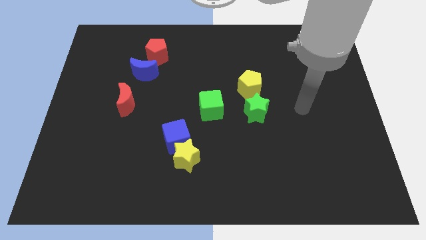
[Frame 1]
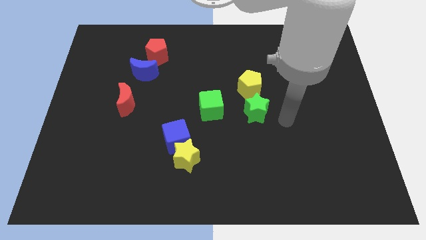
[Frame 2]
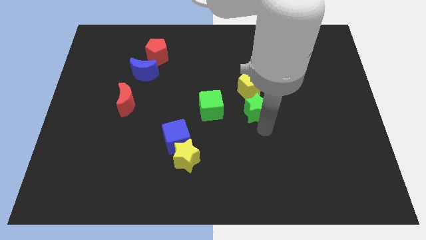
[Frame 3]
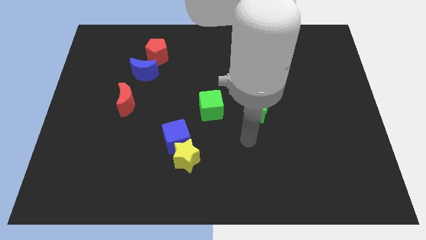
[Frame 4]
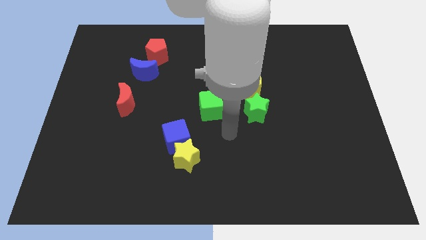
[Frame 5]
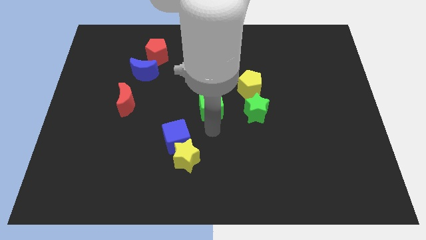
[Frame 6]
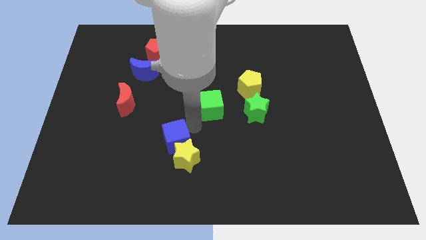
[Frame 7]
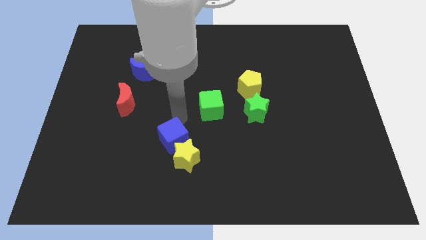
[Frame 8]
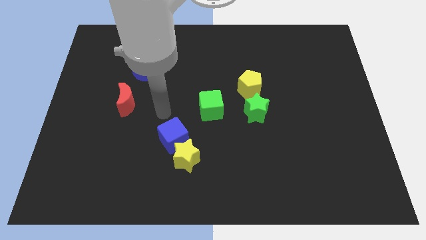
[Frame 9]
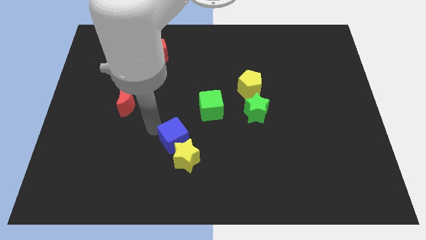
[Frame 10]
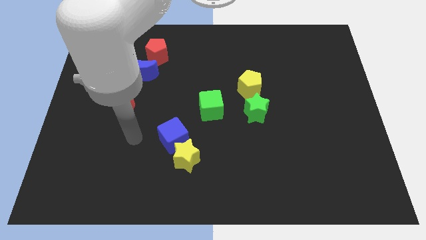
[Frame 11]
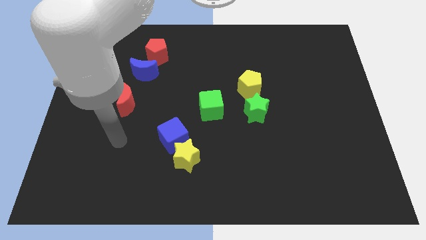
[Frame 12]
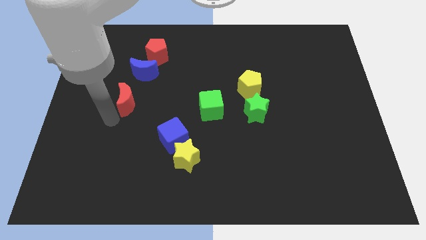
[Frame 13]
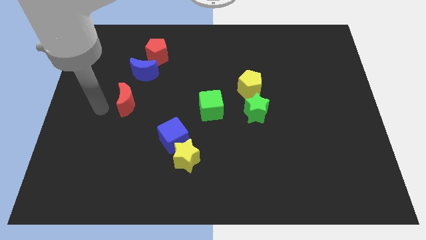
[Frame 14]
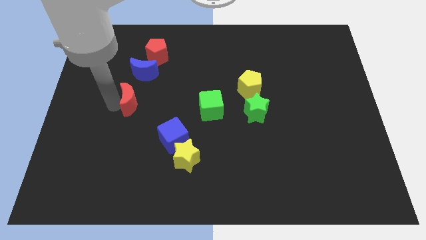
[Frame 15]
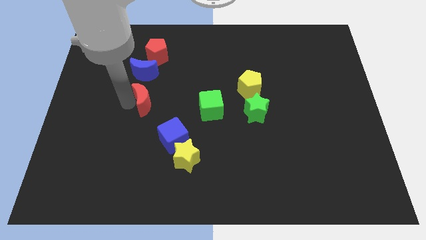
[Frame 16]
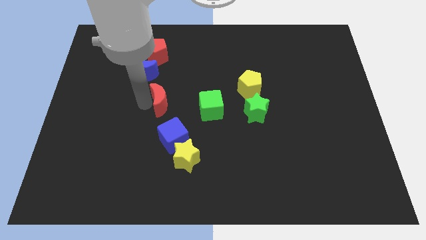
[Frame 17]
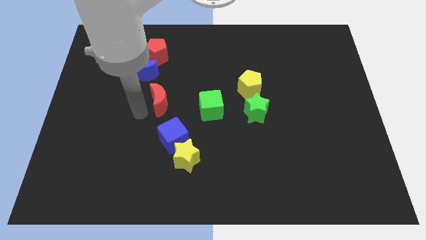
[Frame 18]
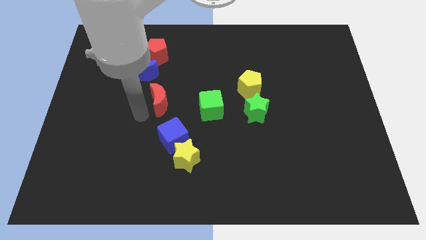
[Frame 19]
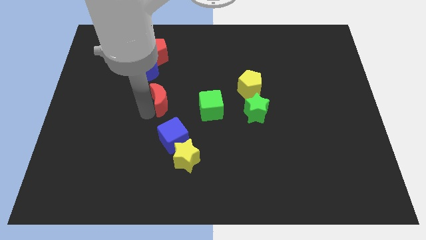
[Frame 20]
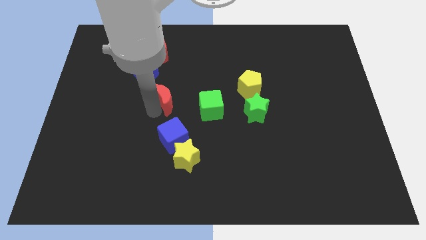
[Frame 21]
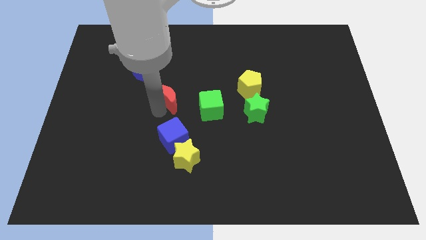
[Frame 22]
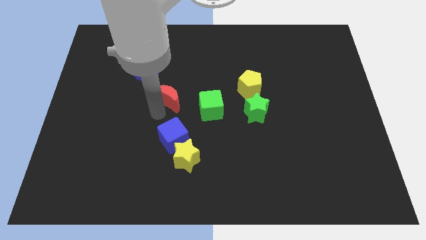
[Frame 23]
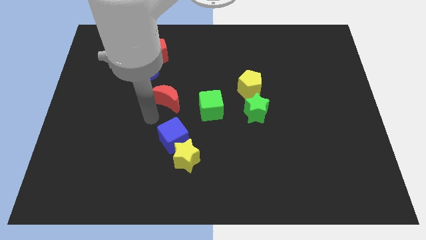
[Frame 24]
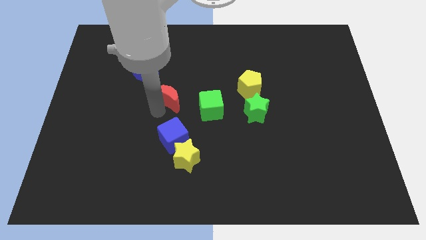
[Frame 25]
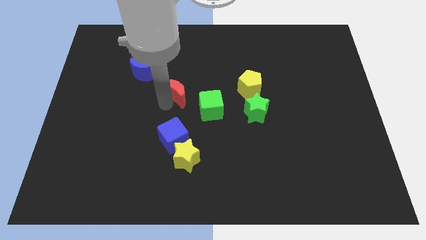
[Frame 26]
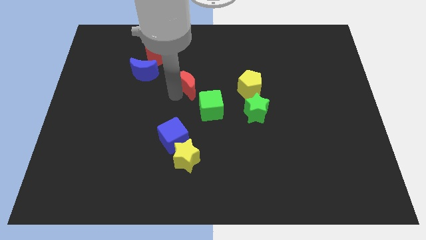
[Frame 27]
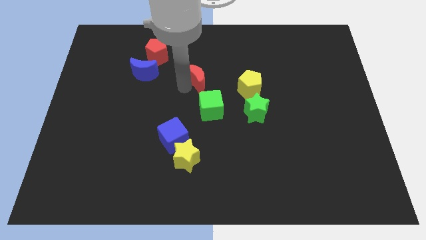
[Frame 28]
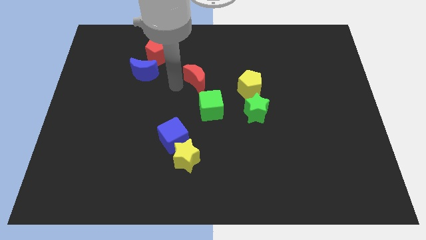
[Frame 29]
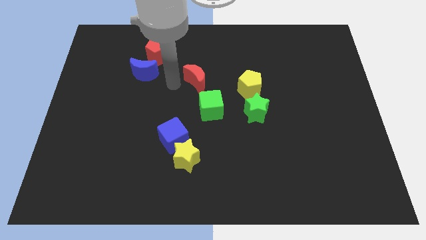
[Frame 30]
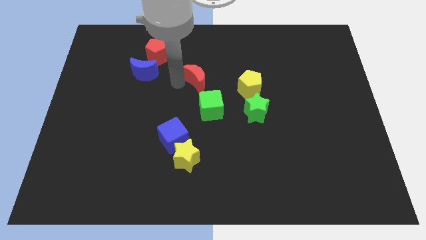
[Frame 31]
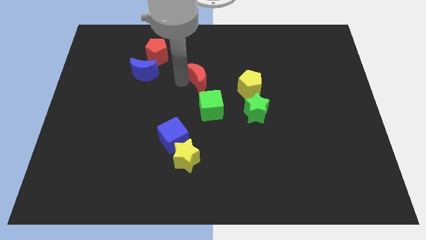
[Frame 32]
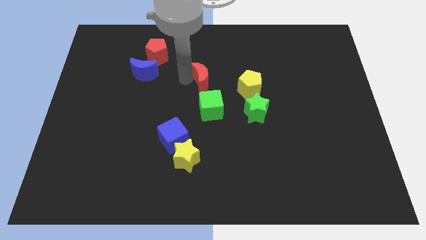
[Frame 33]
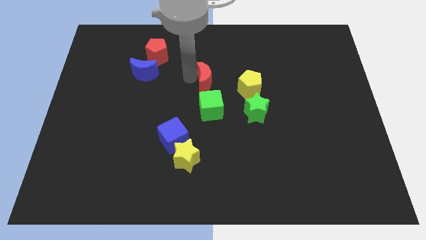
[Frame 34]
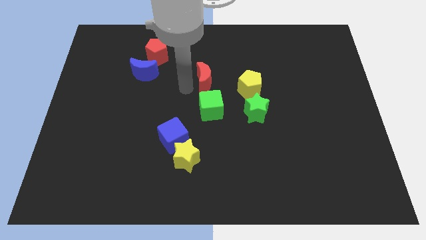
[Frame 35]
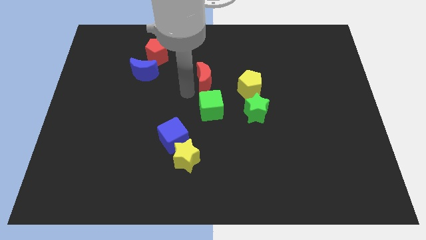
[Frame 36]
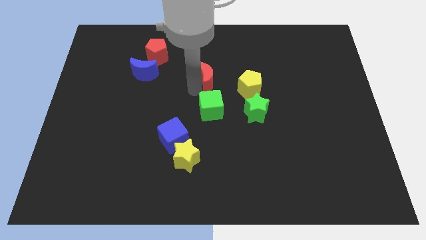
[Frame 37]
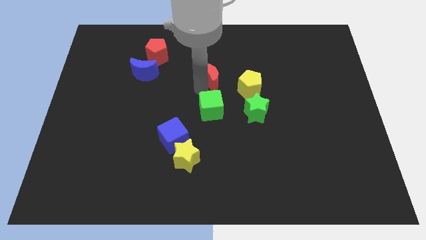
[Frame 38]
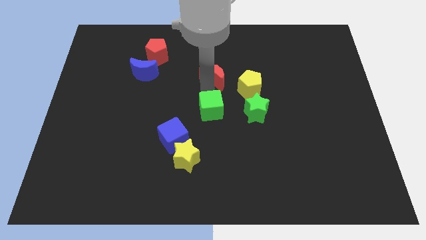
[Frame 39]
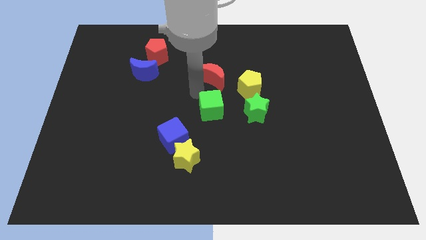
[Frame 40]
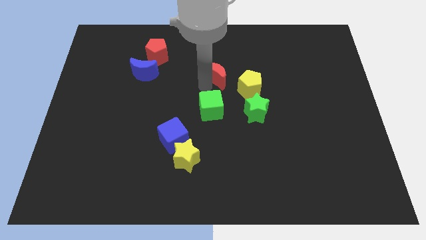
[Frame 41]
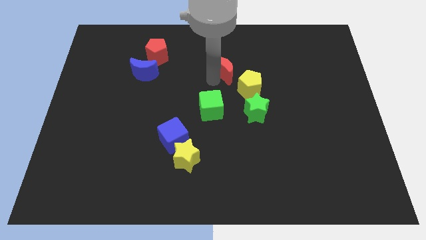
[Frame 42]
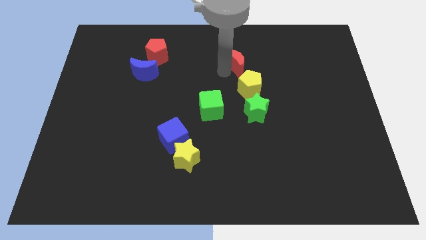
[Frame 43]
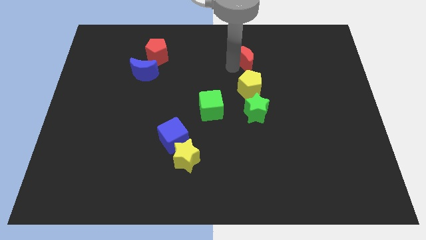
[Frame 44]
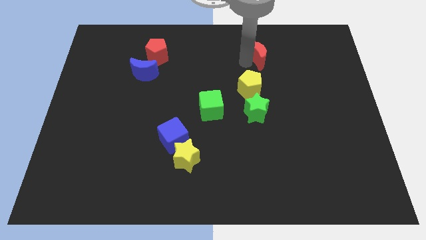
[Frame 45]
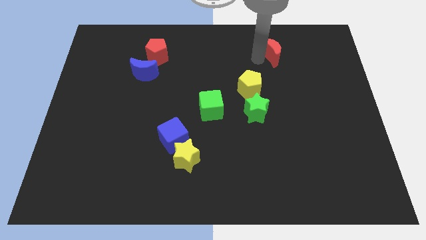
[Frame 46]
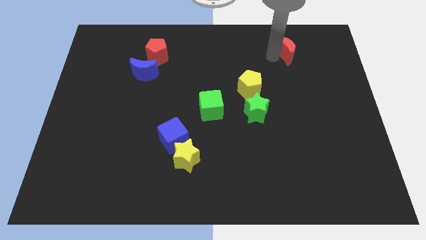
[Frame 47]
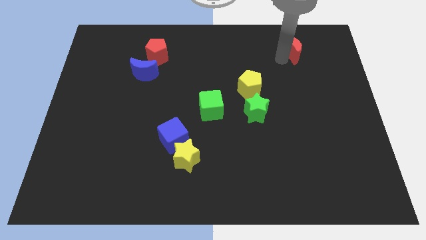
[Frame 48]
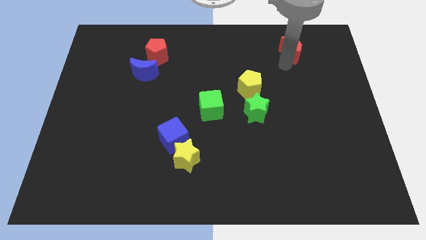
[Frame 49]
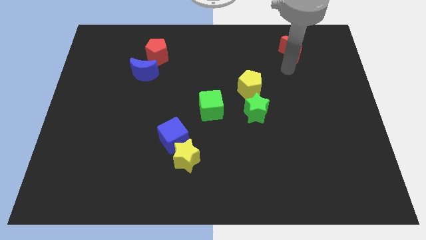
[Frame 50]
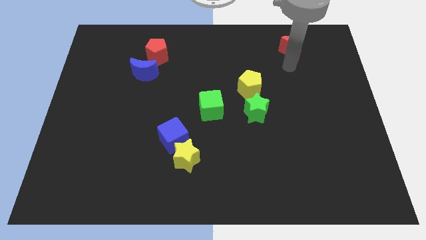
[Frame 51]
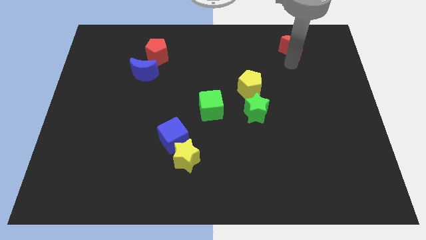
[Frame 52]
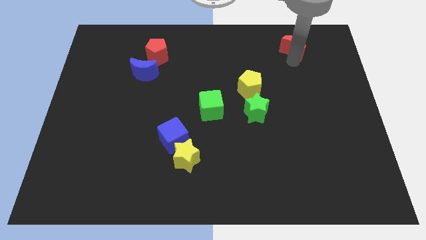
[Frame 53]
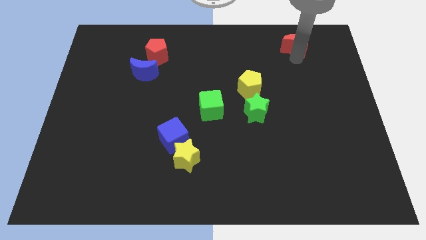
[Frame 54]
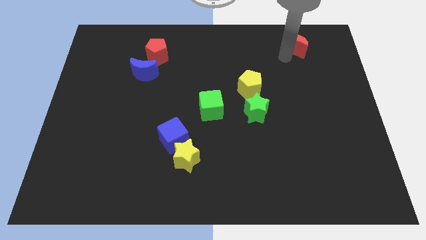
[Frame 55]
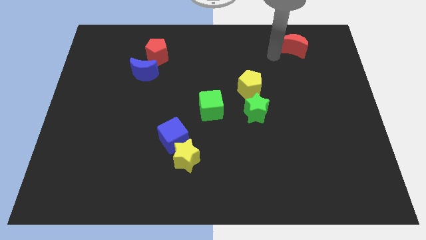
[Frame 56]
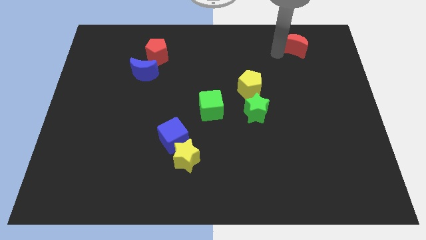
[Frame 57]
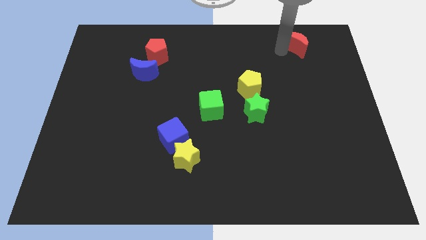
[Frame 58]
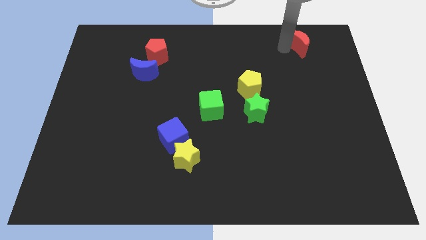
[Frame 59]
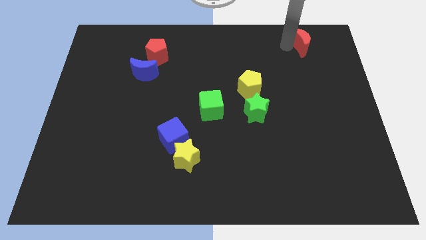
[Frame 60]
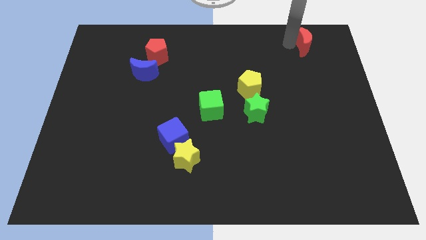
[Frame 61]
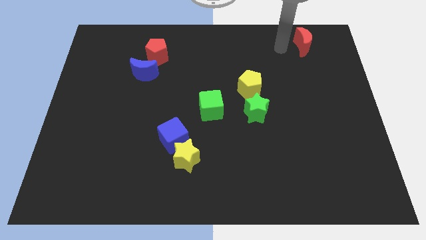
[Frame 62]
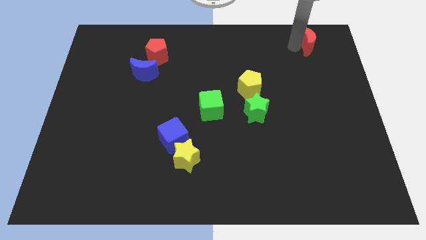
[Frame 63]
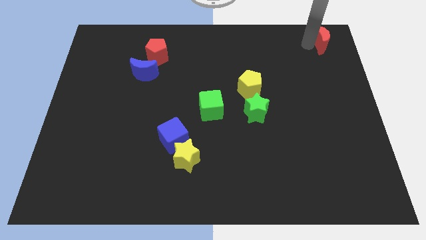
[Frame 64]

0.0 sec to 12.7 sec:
move the red moon to the top right corner
